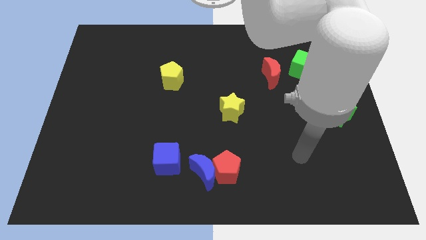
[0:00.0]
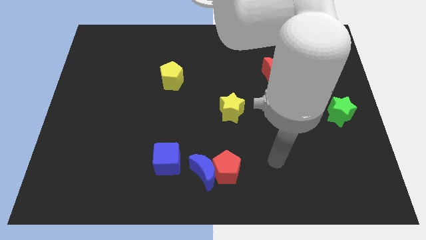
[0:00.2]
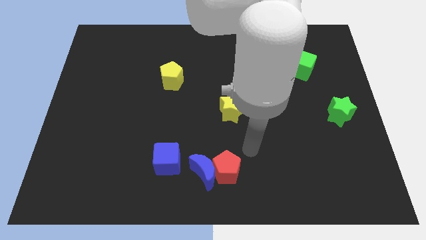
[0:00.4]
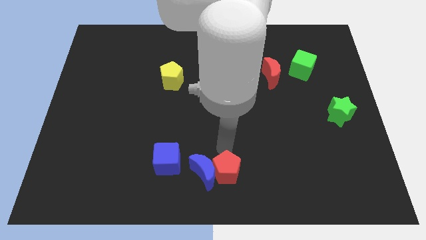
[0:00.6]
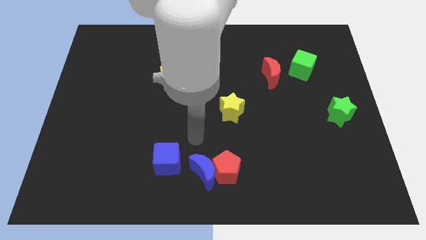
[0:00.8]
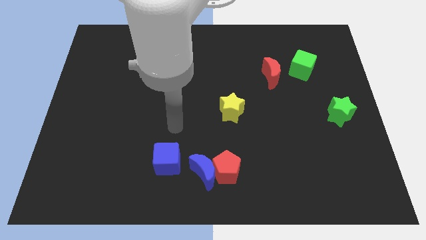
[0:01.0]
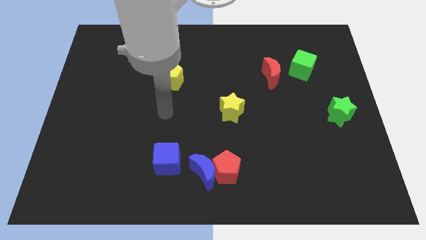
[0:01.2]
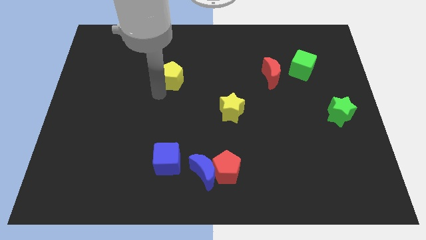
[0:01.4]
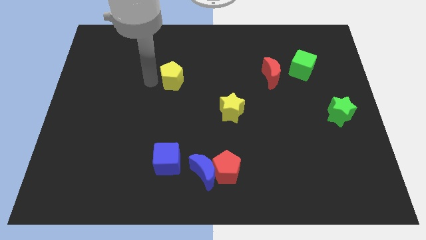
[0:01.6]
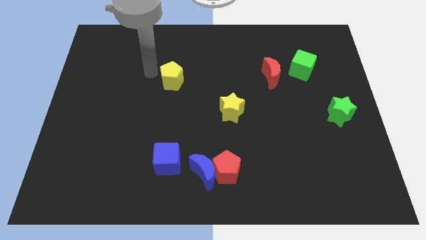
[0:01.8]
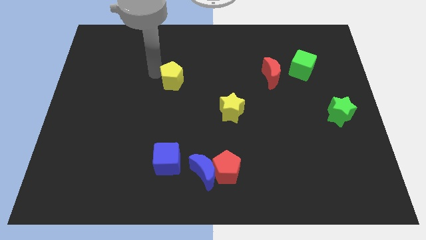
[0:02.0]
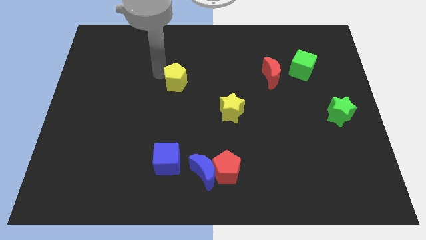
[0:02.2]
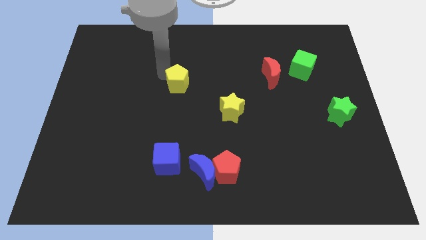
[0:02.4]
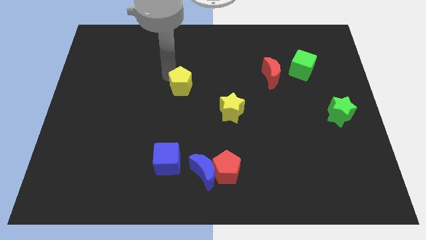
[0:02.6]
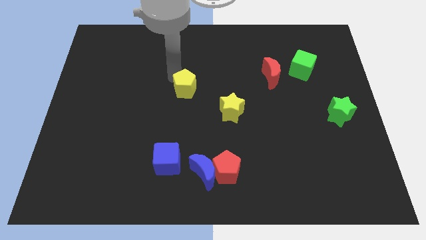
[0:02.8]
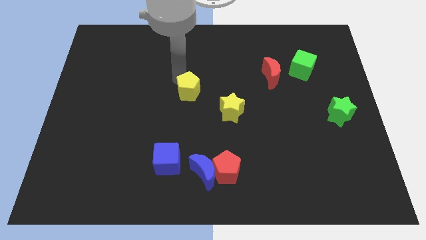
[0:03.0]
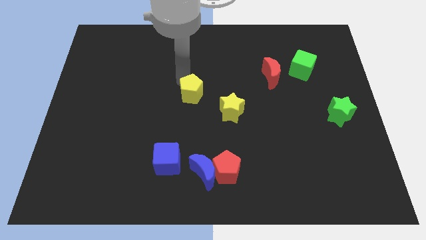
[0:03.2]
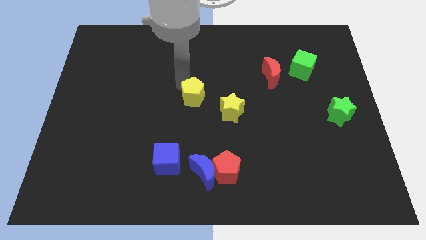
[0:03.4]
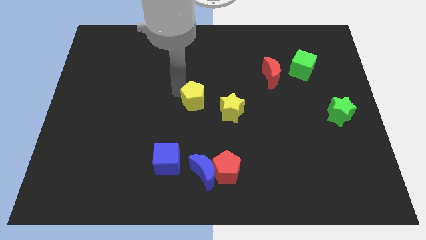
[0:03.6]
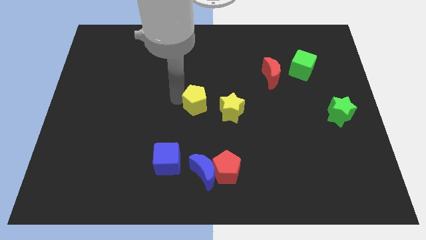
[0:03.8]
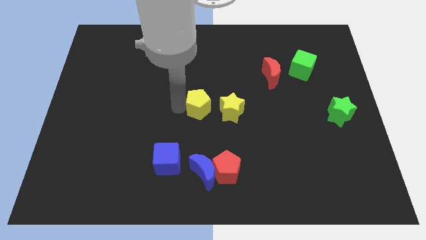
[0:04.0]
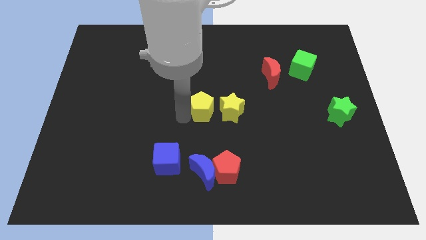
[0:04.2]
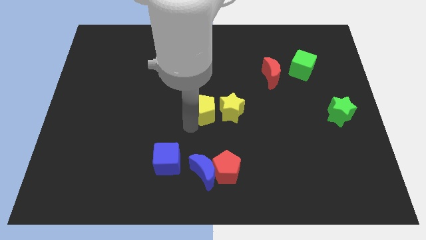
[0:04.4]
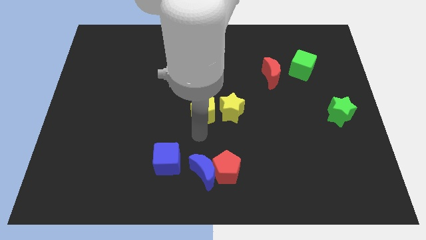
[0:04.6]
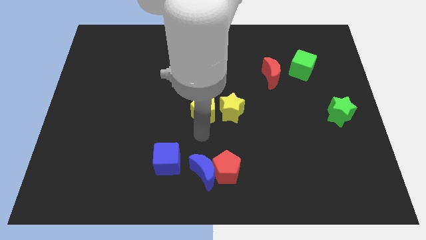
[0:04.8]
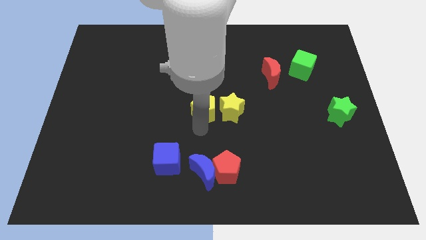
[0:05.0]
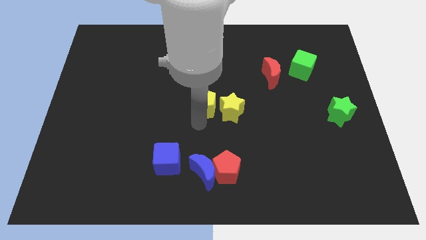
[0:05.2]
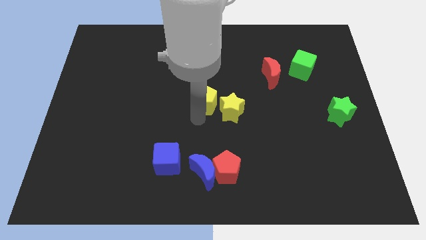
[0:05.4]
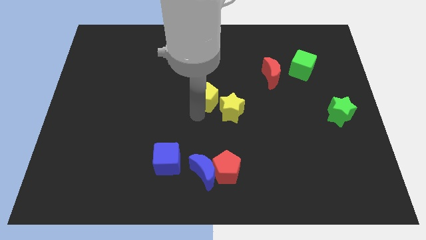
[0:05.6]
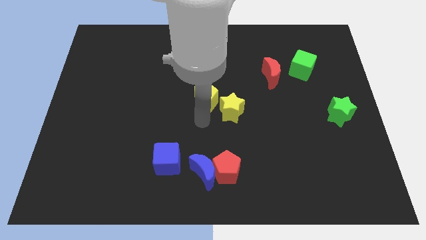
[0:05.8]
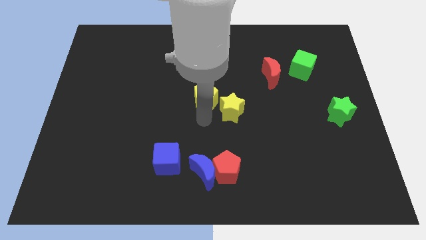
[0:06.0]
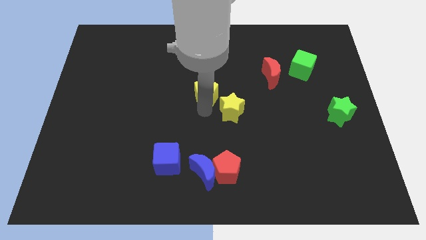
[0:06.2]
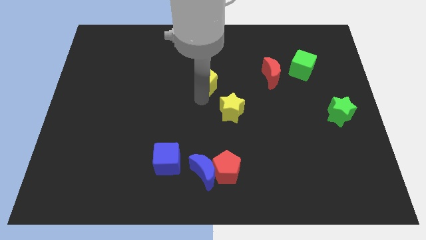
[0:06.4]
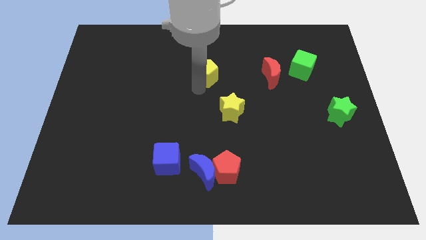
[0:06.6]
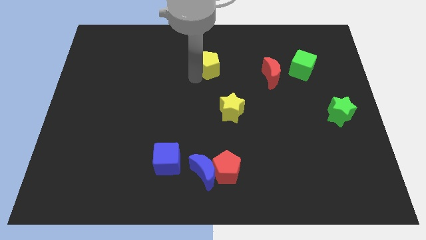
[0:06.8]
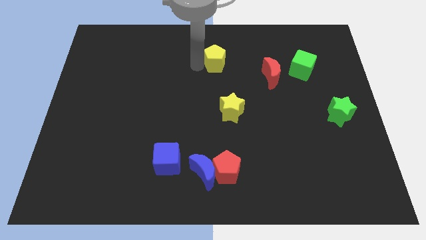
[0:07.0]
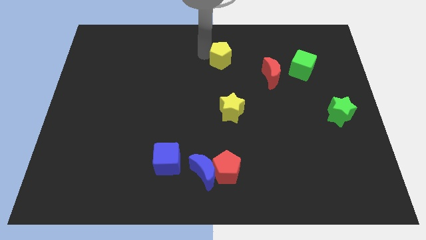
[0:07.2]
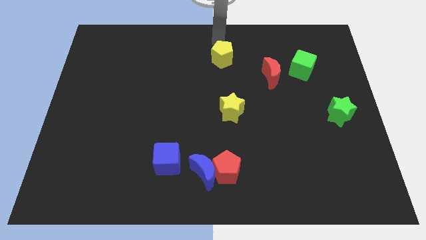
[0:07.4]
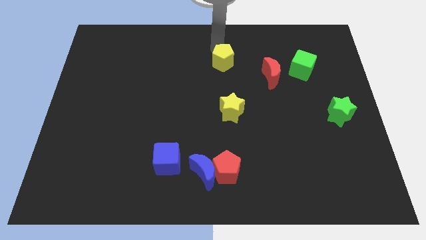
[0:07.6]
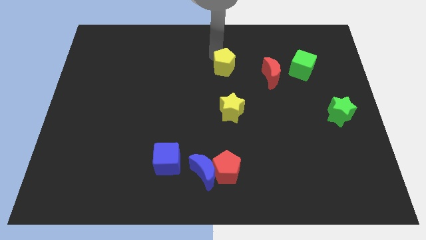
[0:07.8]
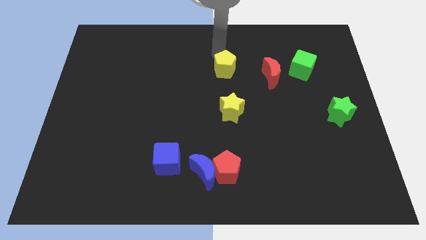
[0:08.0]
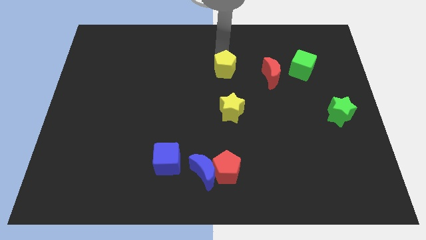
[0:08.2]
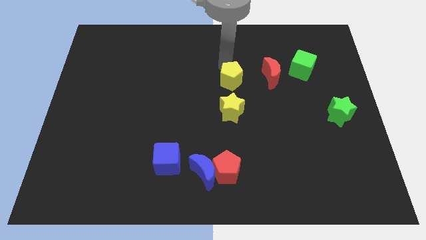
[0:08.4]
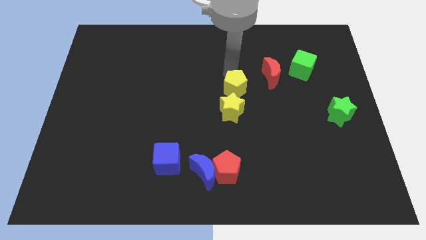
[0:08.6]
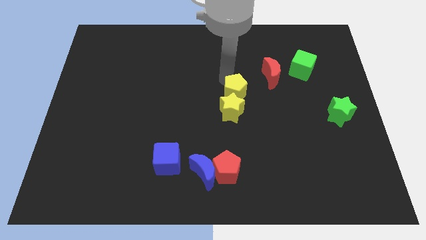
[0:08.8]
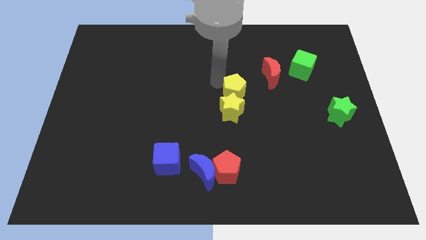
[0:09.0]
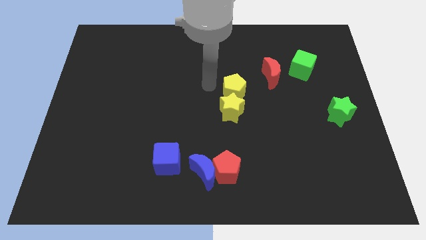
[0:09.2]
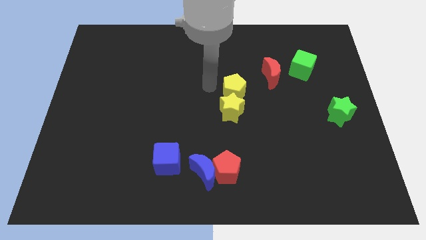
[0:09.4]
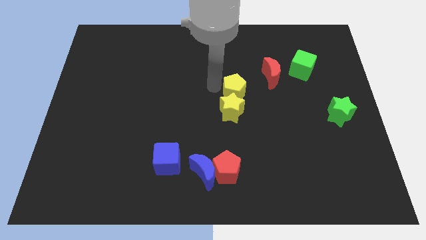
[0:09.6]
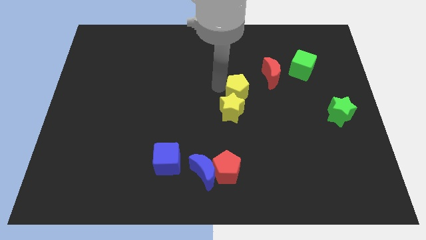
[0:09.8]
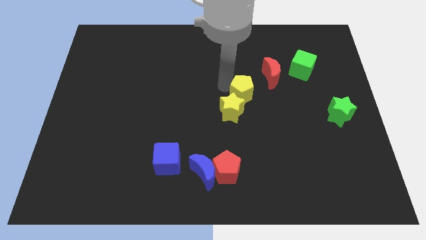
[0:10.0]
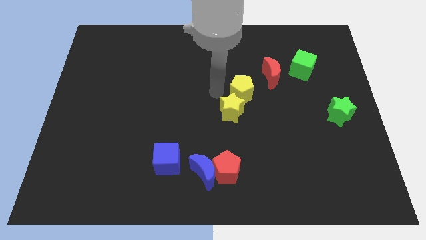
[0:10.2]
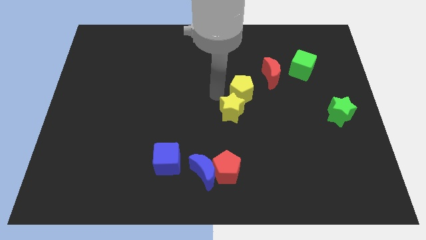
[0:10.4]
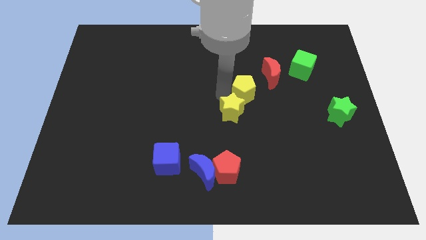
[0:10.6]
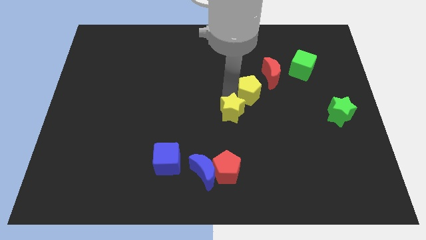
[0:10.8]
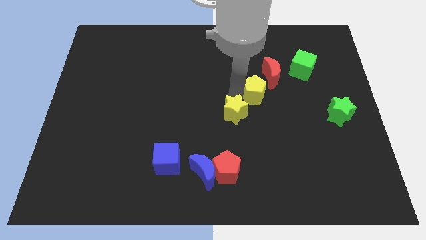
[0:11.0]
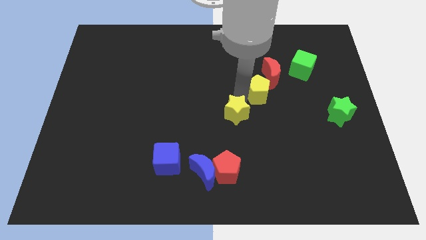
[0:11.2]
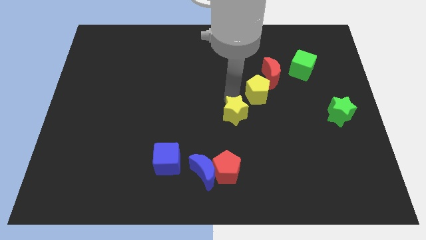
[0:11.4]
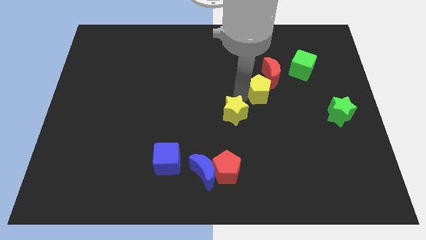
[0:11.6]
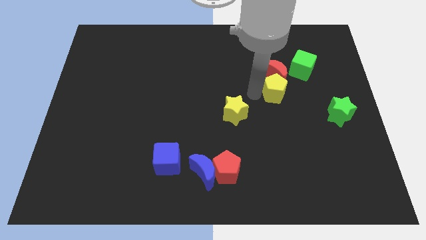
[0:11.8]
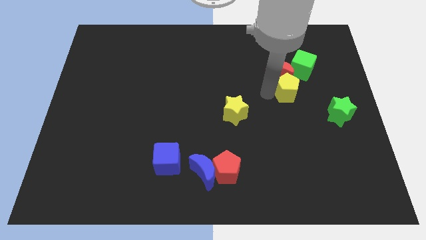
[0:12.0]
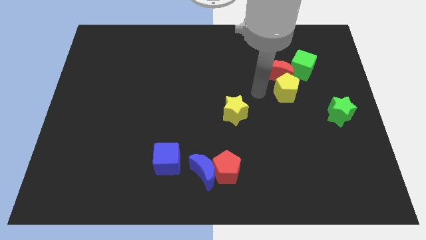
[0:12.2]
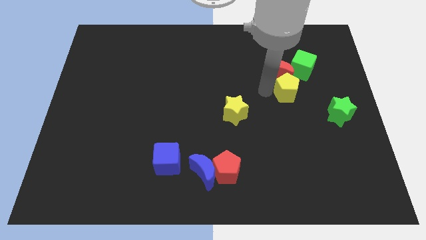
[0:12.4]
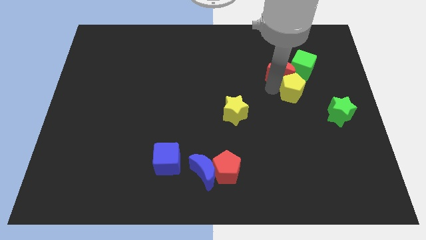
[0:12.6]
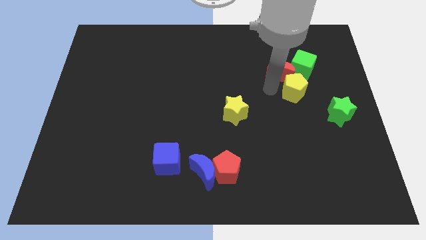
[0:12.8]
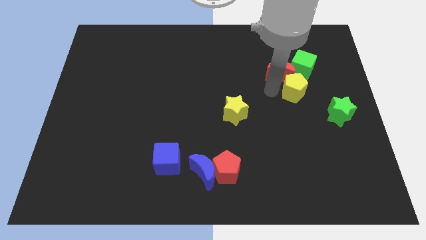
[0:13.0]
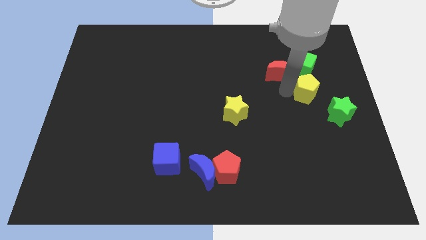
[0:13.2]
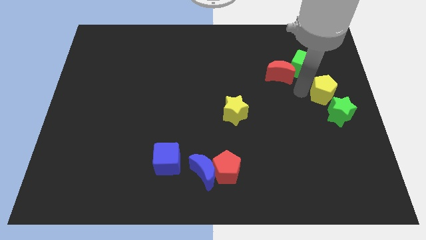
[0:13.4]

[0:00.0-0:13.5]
move the yellow pentagon to the right side of the board

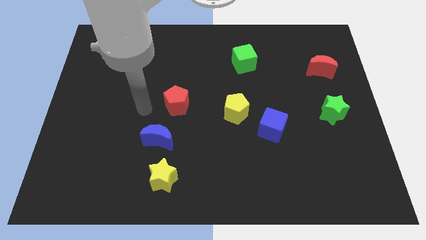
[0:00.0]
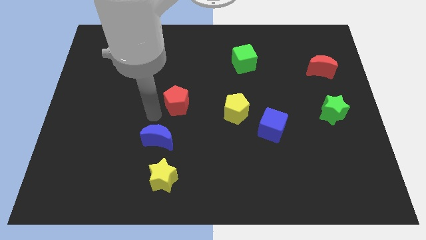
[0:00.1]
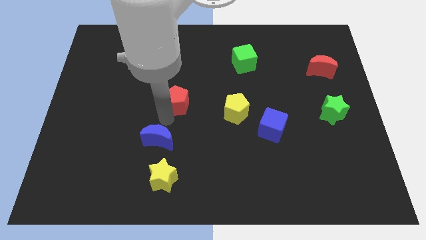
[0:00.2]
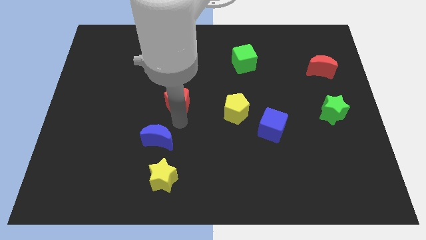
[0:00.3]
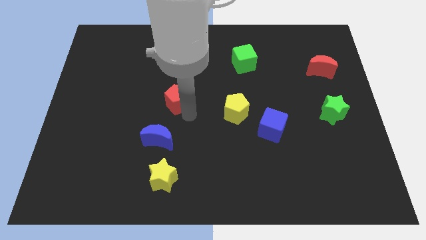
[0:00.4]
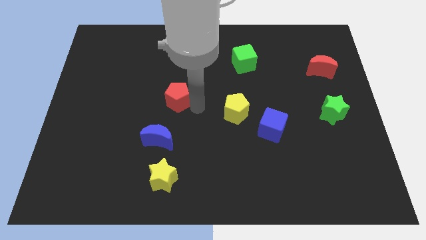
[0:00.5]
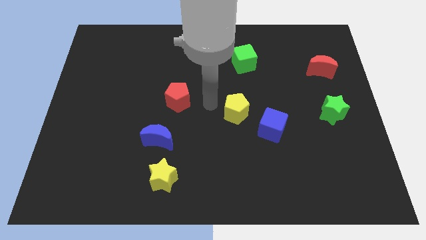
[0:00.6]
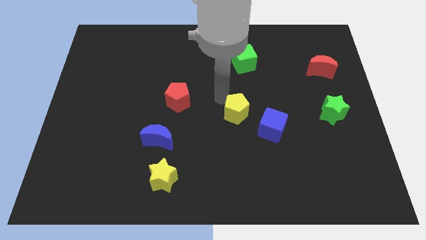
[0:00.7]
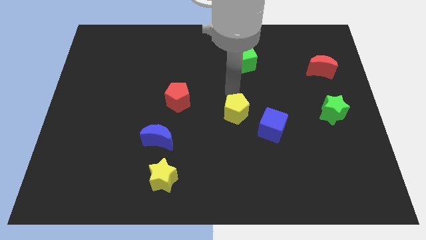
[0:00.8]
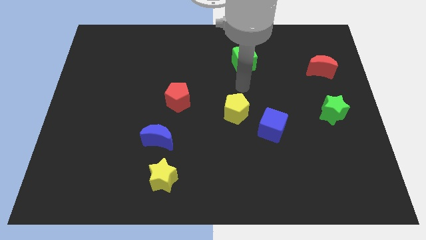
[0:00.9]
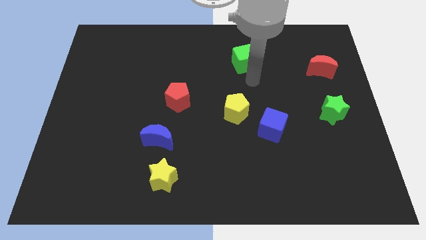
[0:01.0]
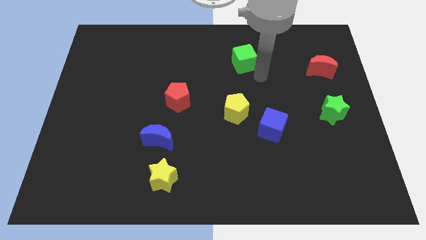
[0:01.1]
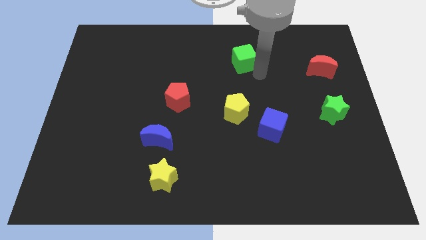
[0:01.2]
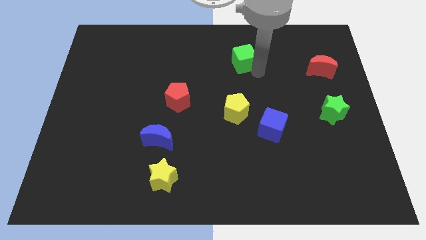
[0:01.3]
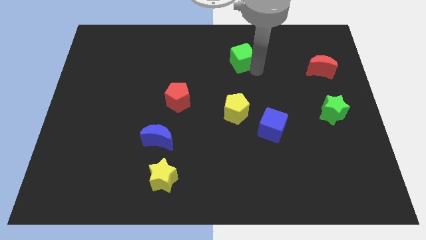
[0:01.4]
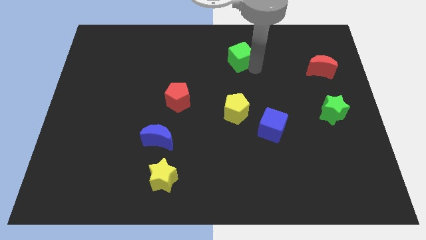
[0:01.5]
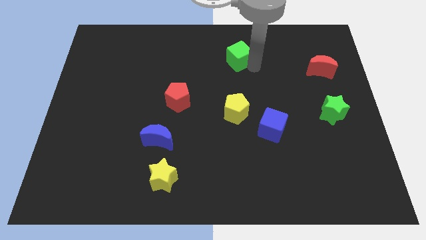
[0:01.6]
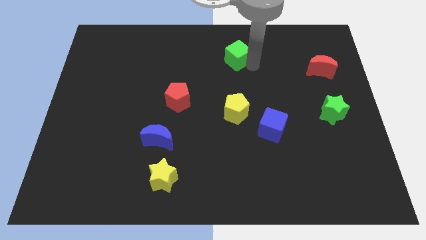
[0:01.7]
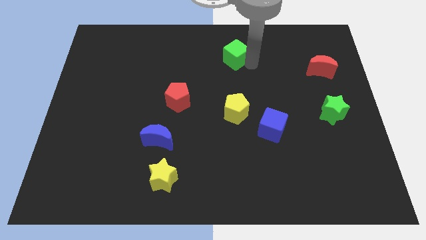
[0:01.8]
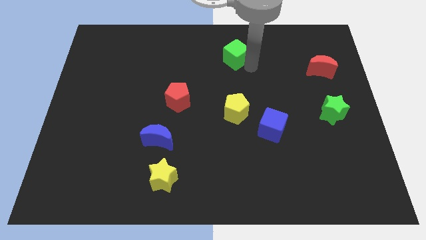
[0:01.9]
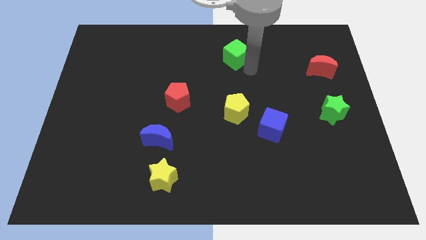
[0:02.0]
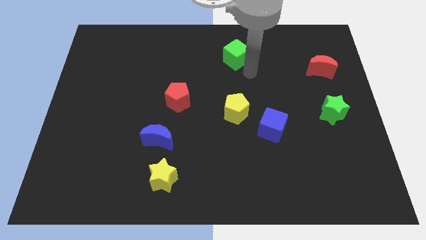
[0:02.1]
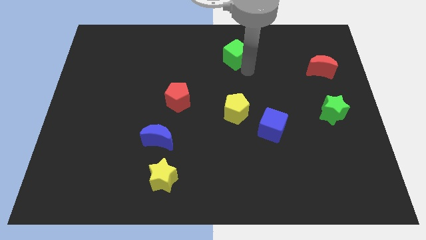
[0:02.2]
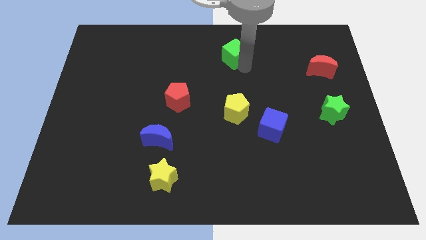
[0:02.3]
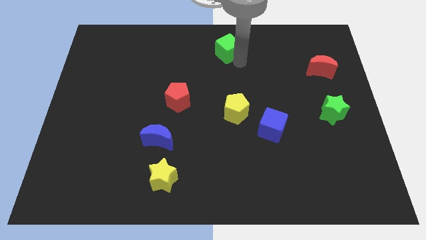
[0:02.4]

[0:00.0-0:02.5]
push the green cube to the towards your base
